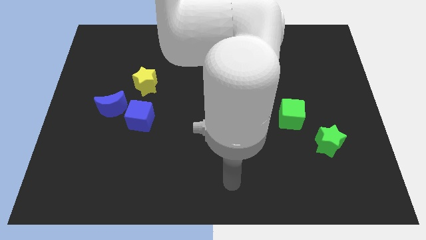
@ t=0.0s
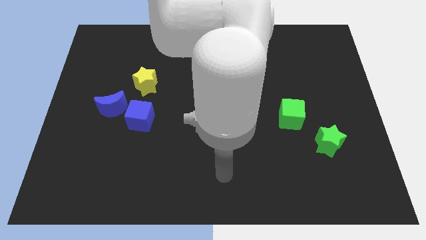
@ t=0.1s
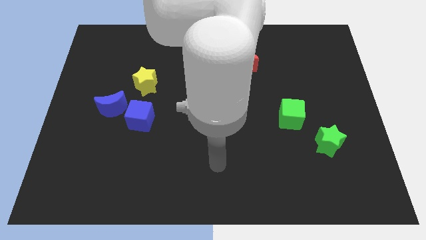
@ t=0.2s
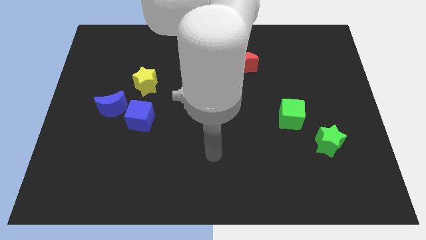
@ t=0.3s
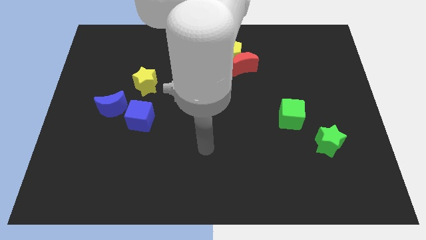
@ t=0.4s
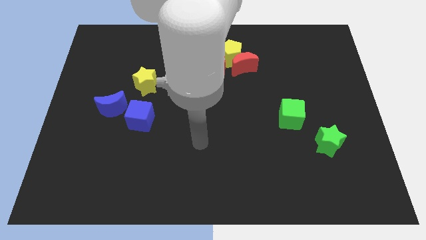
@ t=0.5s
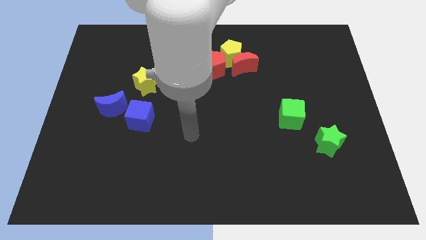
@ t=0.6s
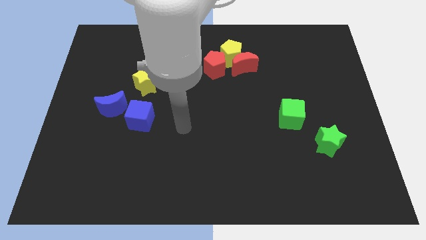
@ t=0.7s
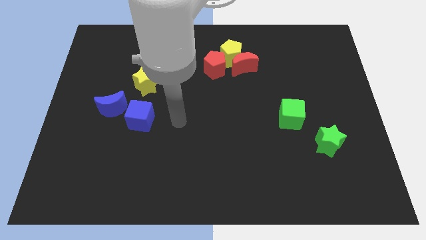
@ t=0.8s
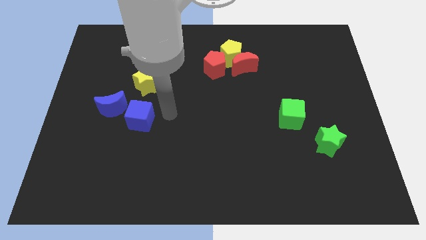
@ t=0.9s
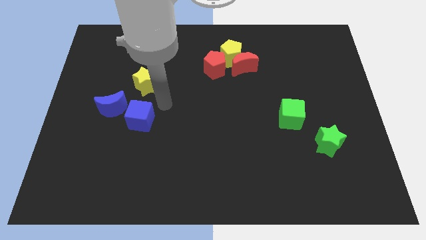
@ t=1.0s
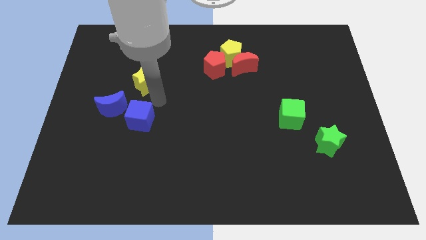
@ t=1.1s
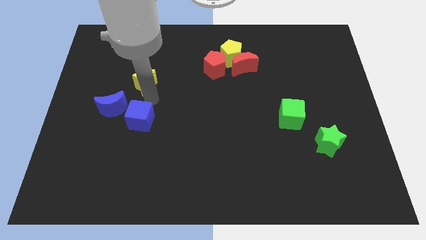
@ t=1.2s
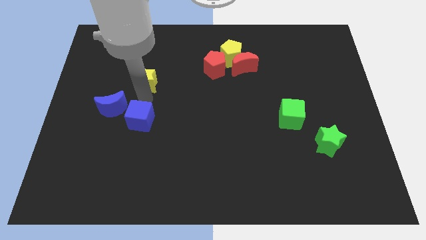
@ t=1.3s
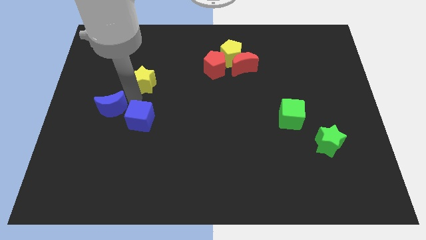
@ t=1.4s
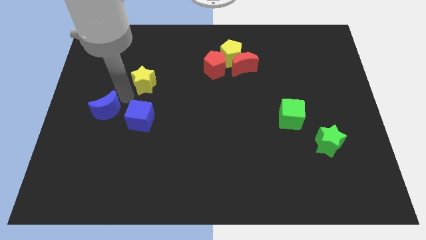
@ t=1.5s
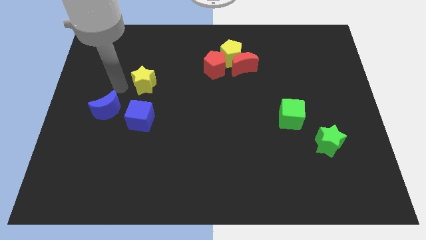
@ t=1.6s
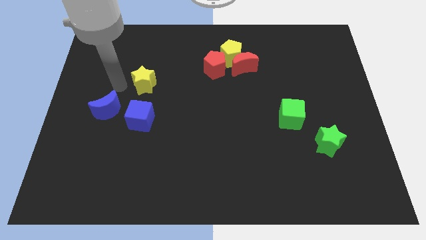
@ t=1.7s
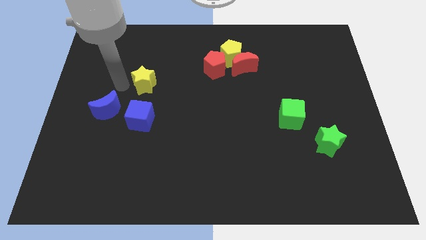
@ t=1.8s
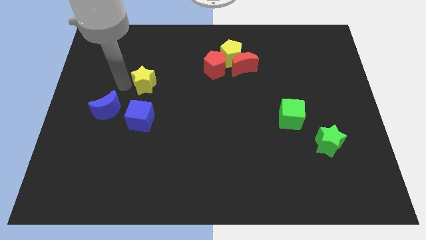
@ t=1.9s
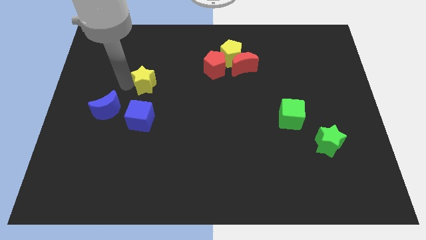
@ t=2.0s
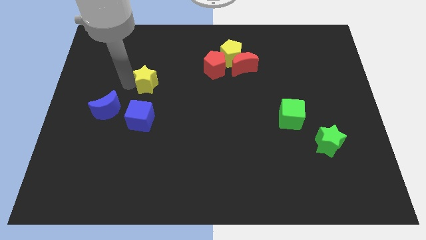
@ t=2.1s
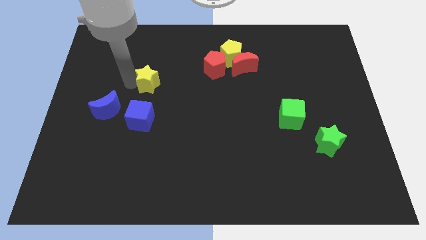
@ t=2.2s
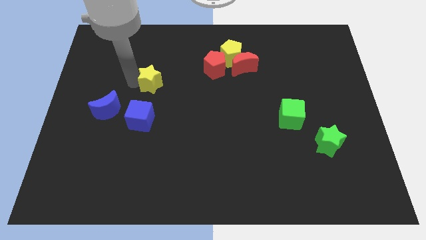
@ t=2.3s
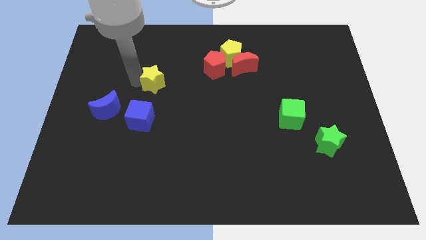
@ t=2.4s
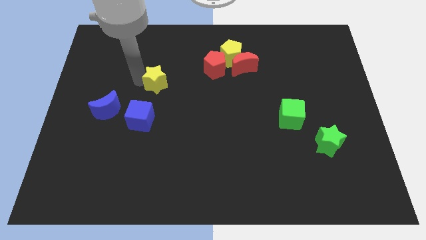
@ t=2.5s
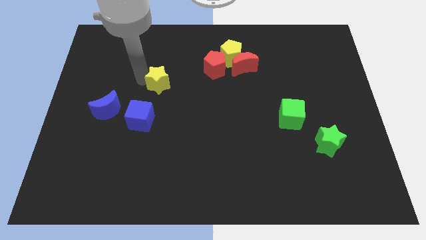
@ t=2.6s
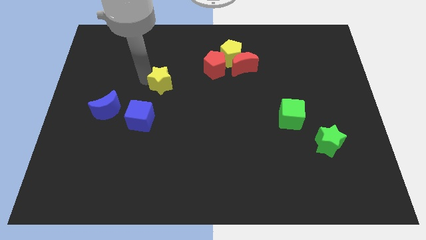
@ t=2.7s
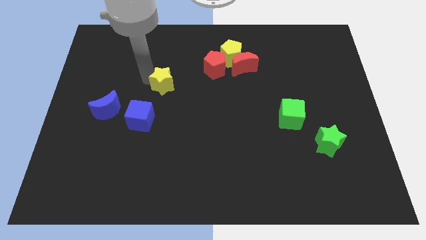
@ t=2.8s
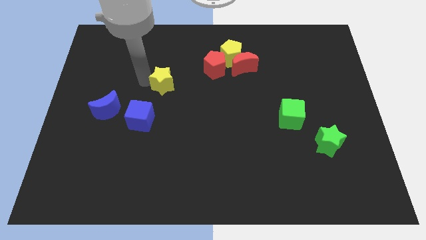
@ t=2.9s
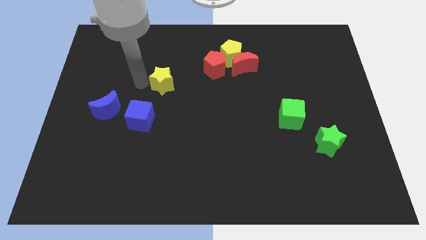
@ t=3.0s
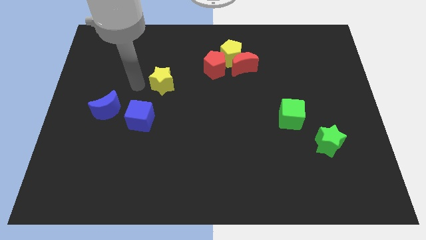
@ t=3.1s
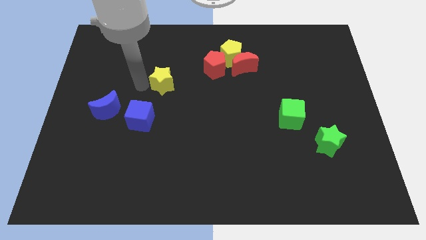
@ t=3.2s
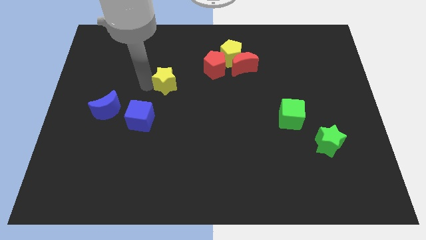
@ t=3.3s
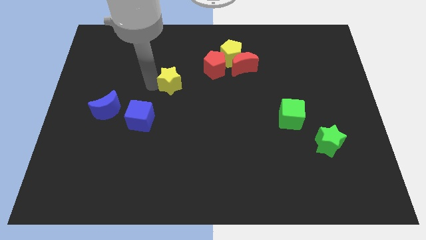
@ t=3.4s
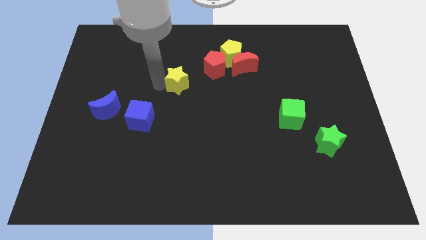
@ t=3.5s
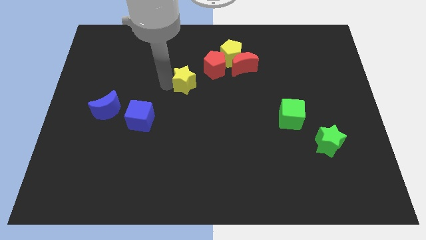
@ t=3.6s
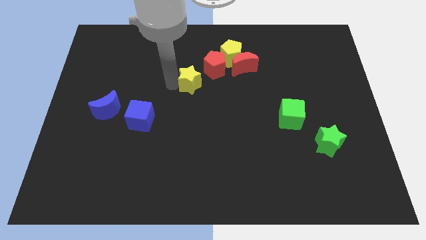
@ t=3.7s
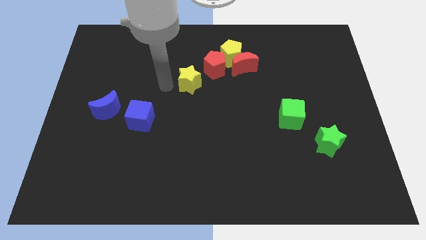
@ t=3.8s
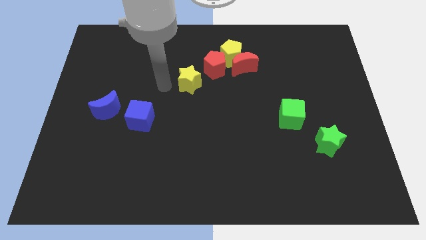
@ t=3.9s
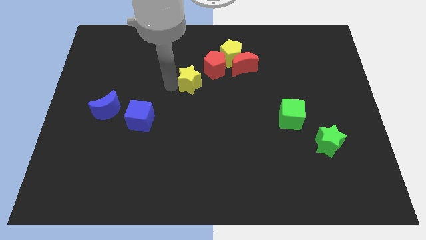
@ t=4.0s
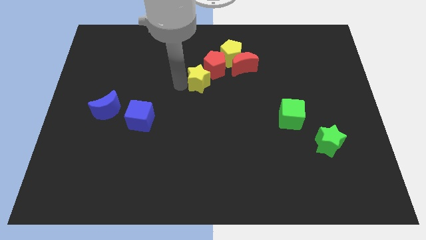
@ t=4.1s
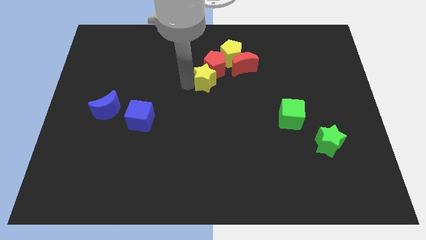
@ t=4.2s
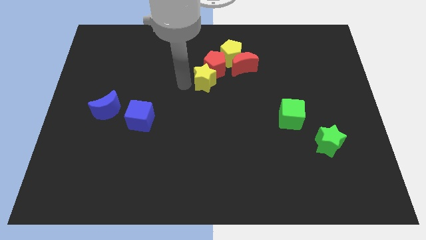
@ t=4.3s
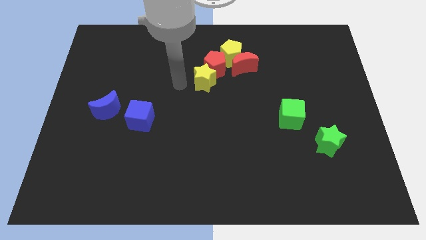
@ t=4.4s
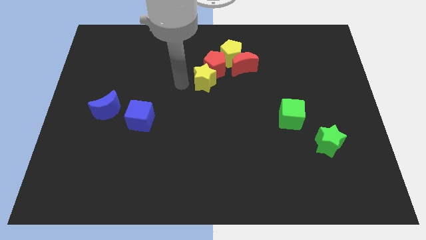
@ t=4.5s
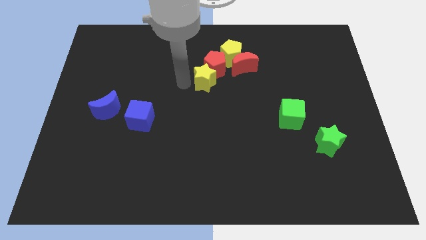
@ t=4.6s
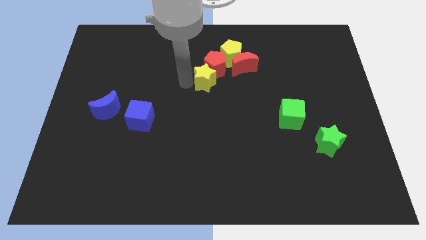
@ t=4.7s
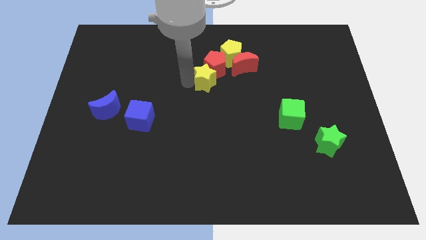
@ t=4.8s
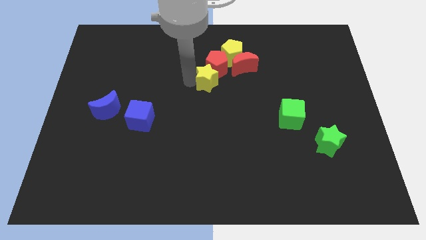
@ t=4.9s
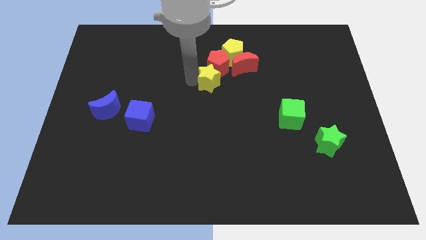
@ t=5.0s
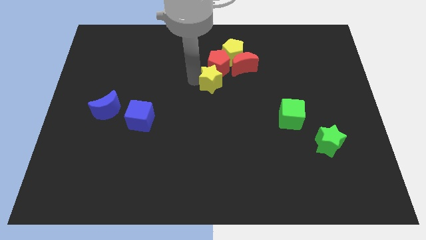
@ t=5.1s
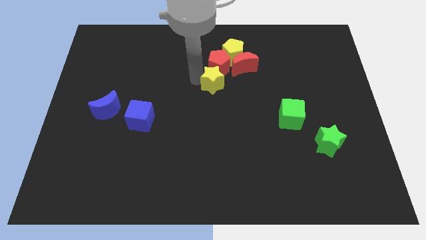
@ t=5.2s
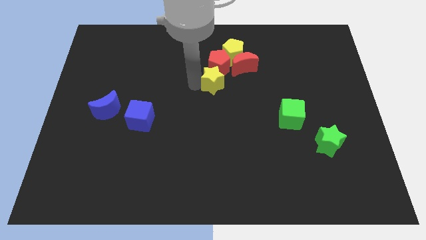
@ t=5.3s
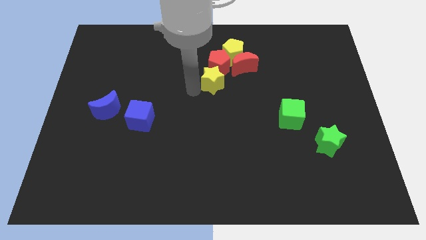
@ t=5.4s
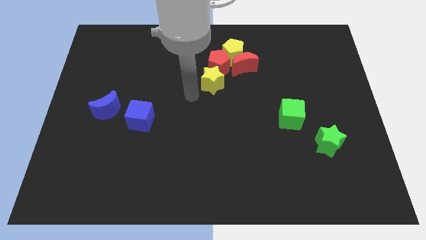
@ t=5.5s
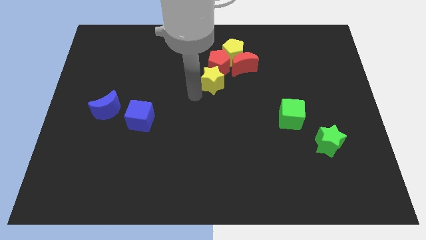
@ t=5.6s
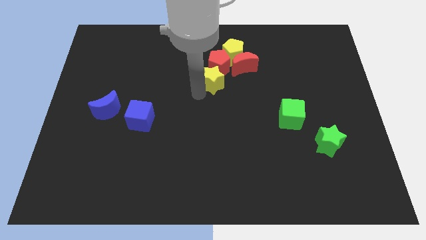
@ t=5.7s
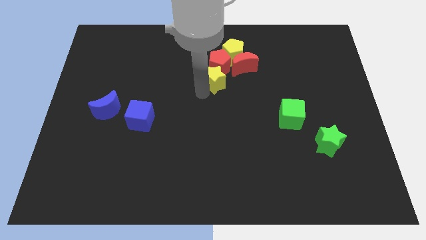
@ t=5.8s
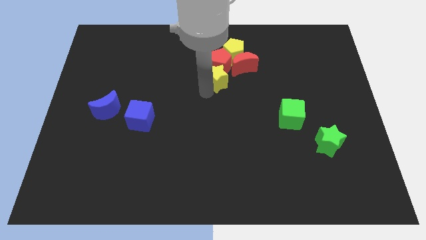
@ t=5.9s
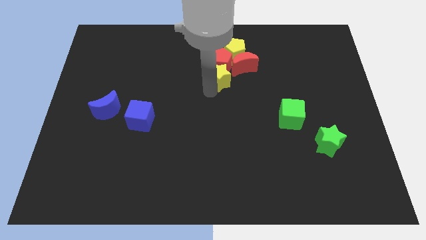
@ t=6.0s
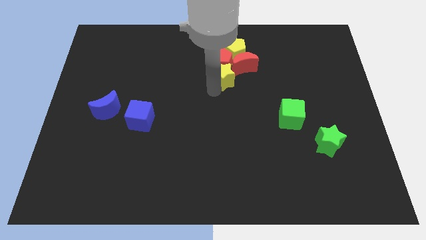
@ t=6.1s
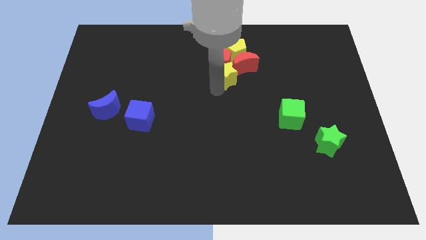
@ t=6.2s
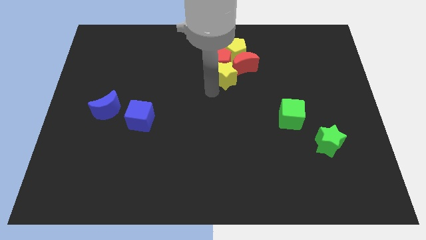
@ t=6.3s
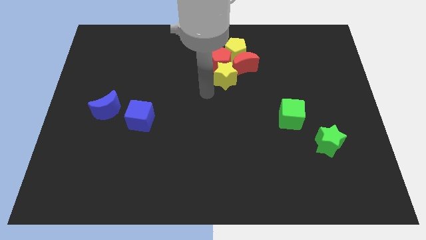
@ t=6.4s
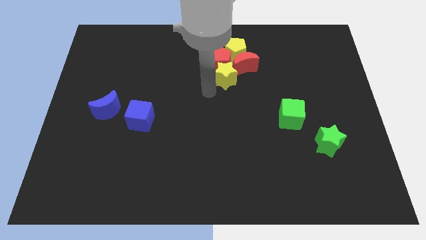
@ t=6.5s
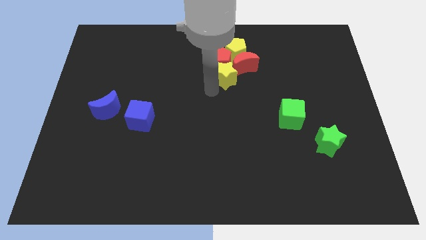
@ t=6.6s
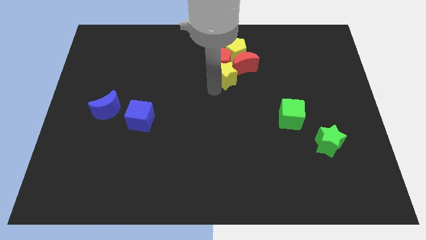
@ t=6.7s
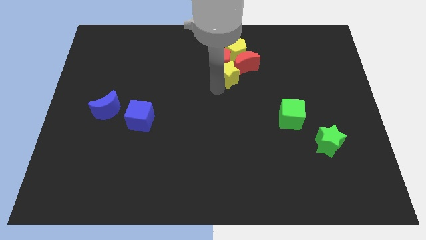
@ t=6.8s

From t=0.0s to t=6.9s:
move the yellow star towards the red moon
